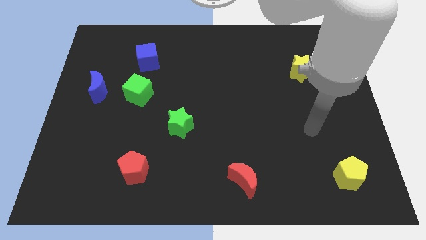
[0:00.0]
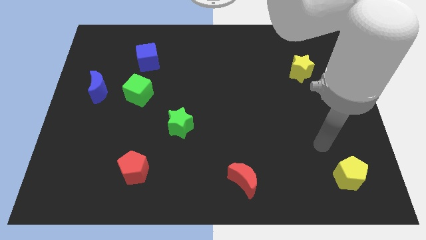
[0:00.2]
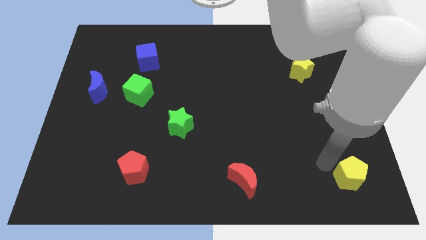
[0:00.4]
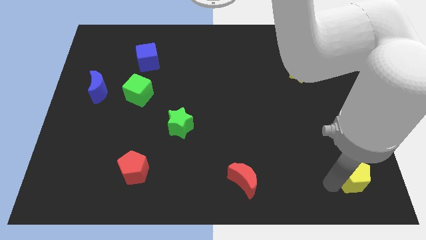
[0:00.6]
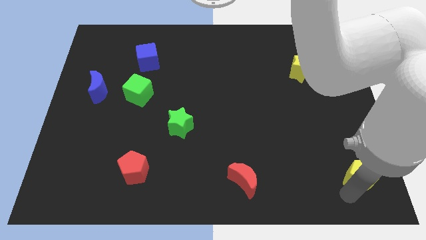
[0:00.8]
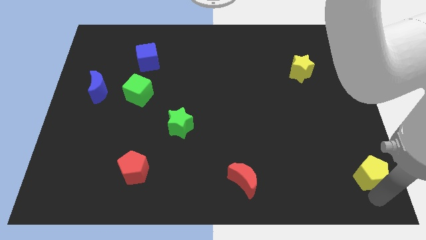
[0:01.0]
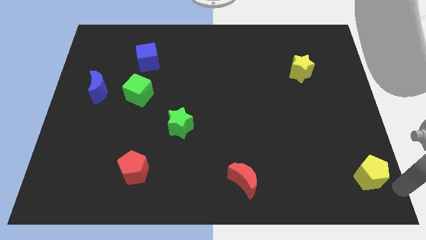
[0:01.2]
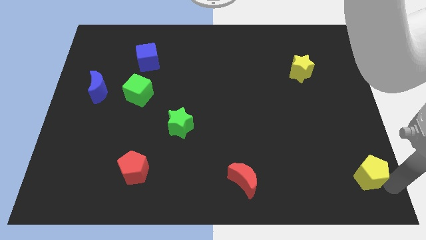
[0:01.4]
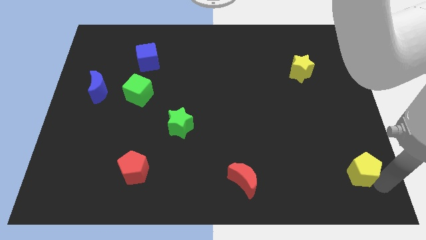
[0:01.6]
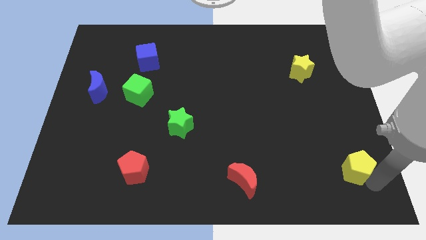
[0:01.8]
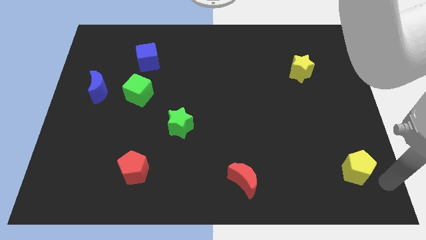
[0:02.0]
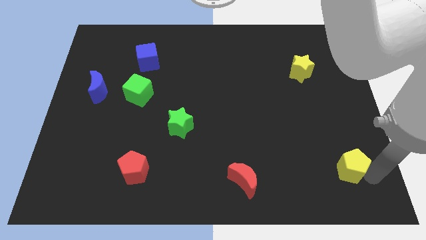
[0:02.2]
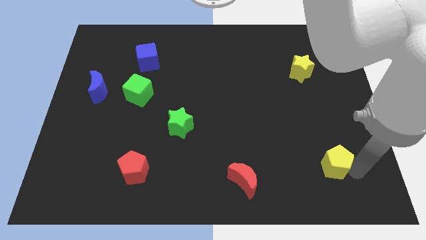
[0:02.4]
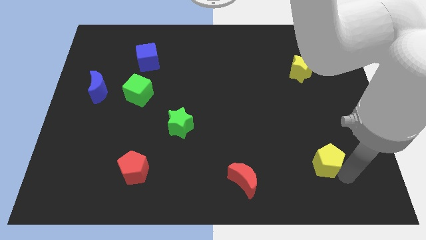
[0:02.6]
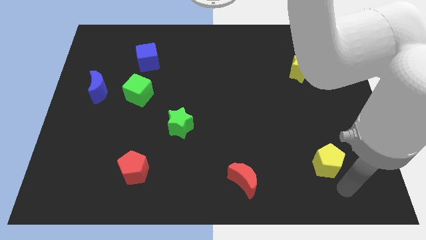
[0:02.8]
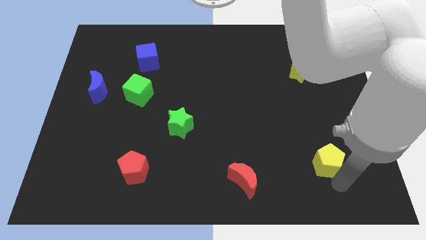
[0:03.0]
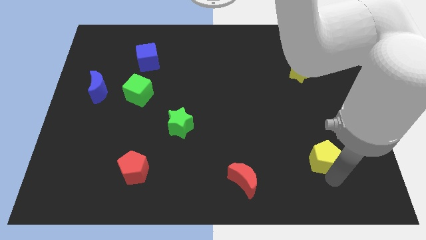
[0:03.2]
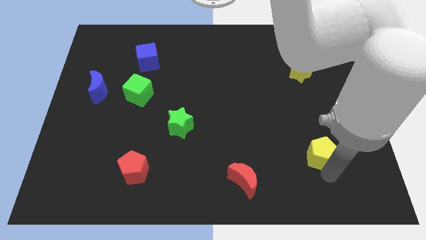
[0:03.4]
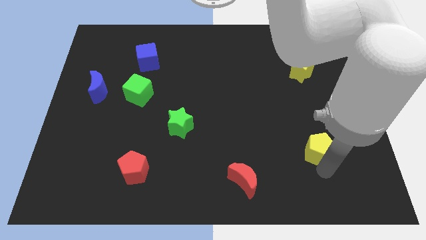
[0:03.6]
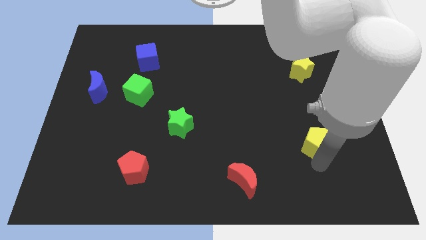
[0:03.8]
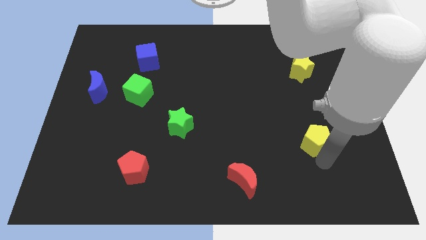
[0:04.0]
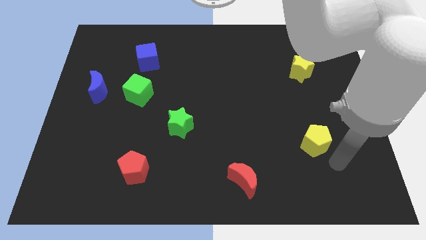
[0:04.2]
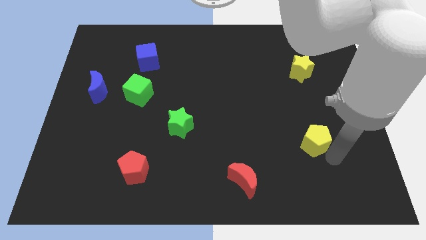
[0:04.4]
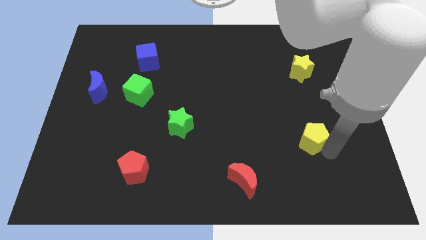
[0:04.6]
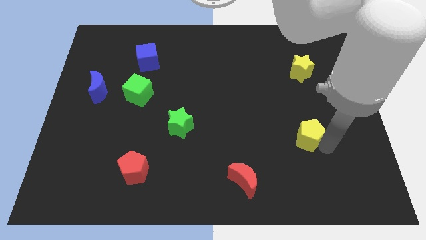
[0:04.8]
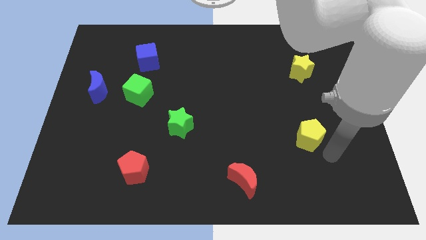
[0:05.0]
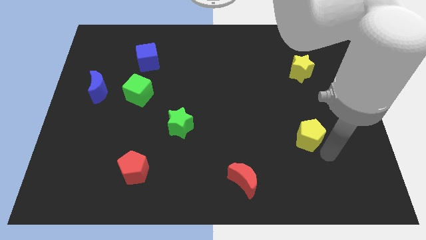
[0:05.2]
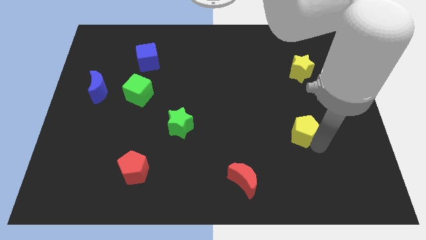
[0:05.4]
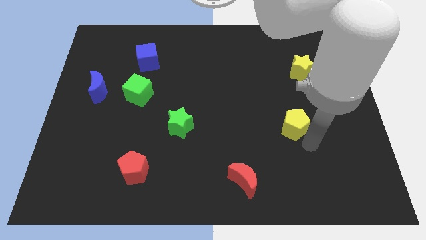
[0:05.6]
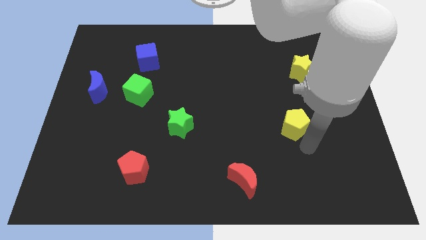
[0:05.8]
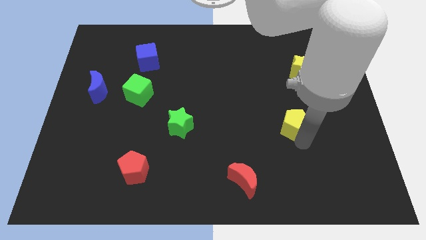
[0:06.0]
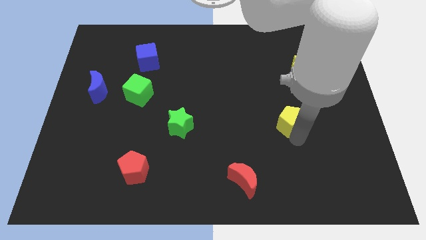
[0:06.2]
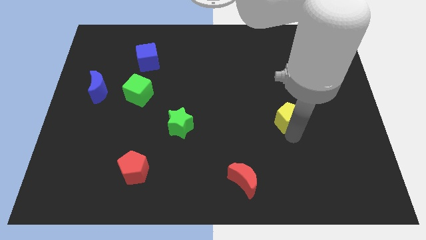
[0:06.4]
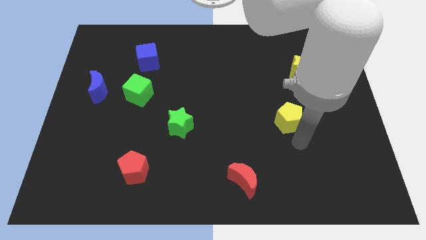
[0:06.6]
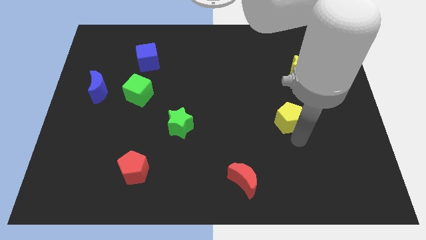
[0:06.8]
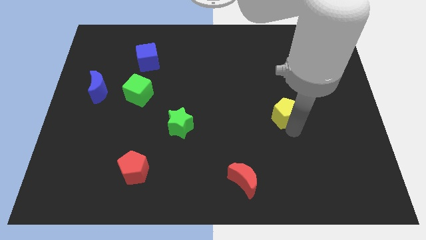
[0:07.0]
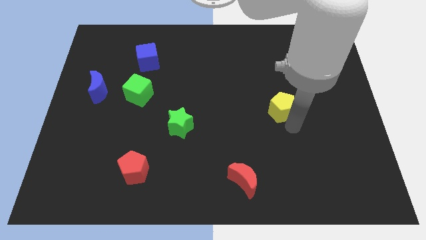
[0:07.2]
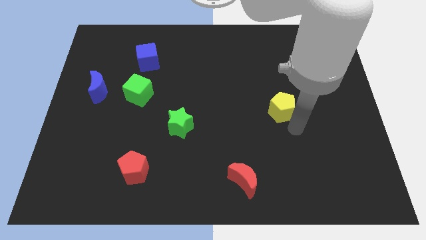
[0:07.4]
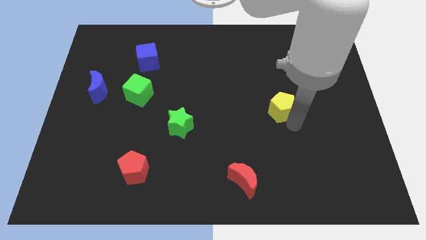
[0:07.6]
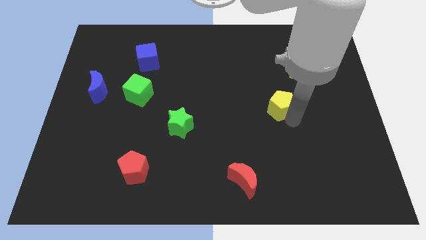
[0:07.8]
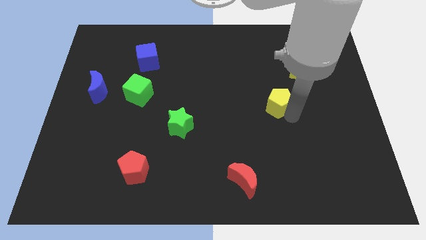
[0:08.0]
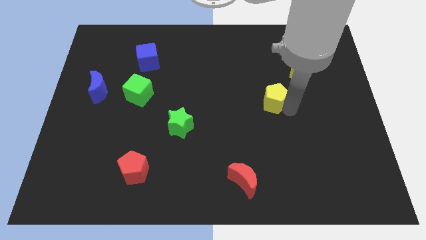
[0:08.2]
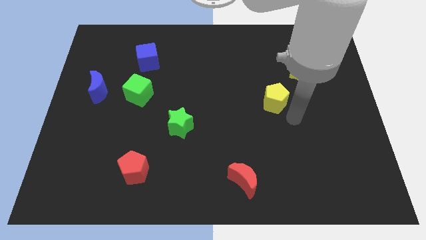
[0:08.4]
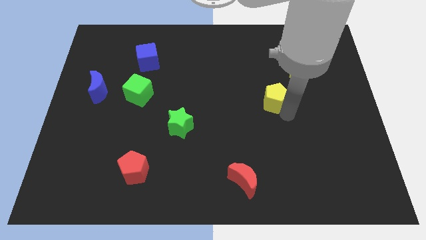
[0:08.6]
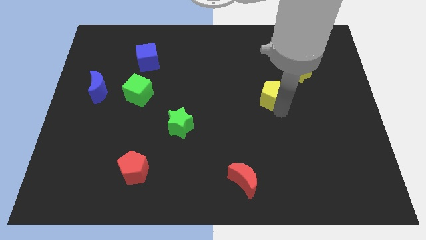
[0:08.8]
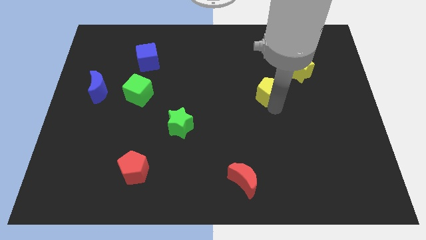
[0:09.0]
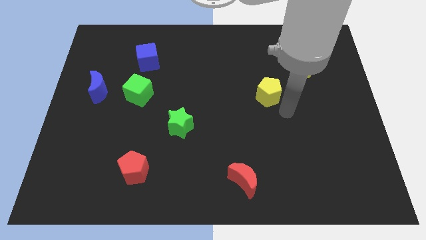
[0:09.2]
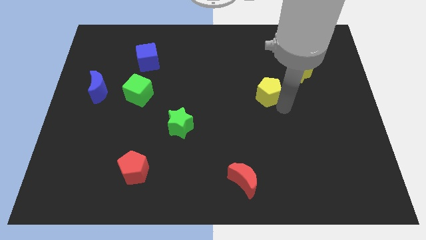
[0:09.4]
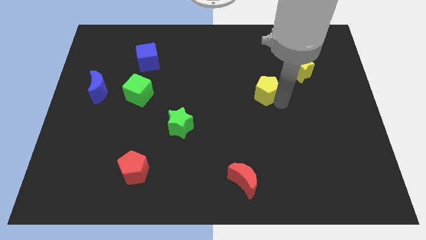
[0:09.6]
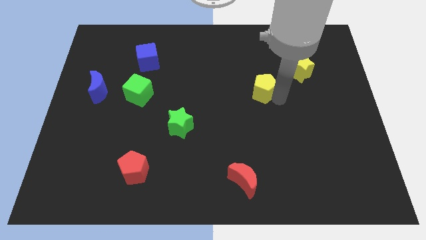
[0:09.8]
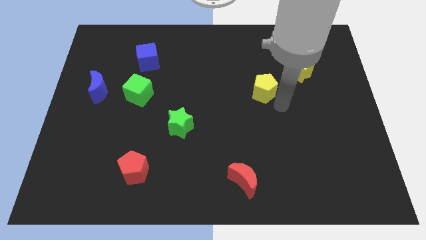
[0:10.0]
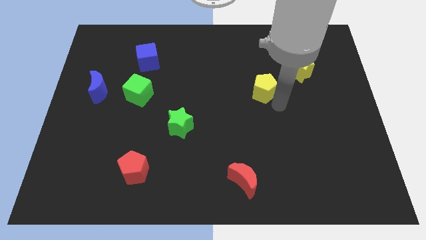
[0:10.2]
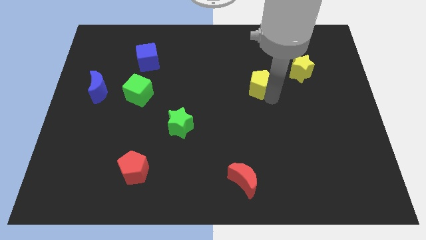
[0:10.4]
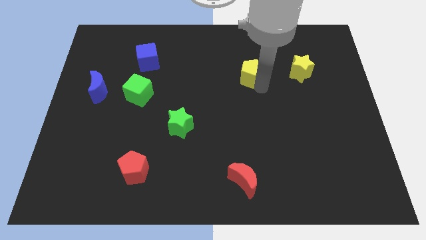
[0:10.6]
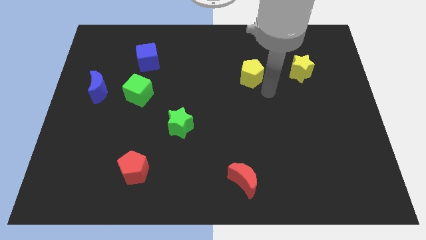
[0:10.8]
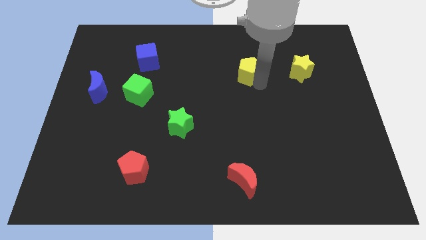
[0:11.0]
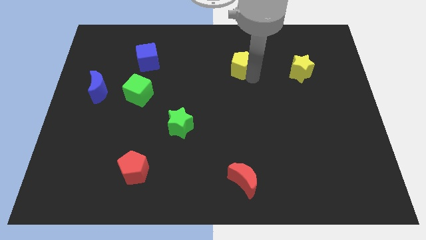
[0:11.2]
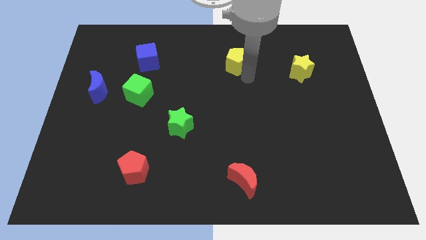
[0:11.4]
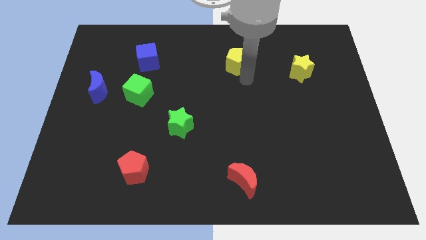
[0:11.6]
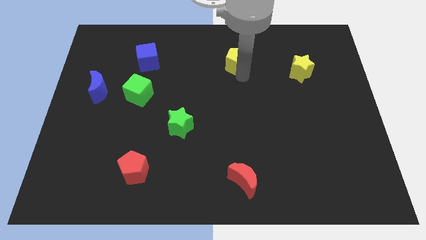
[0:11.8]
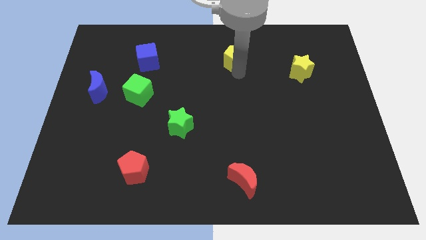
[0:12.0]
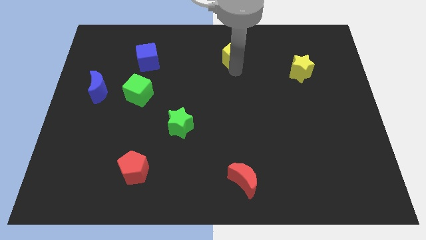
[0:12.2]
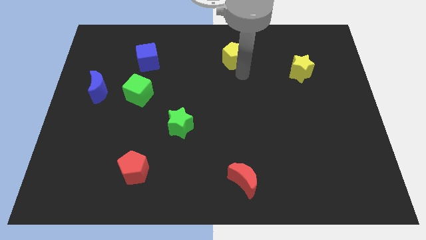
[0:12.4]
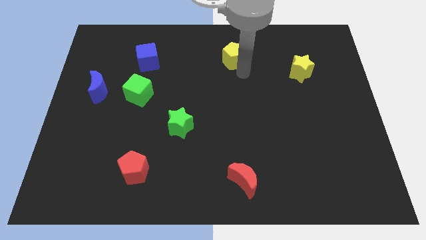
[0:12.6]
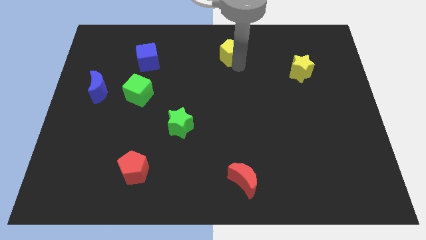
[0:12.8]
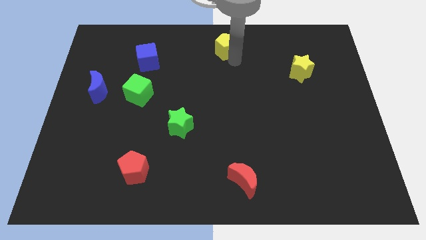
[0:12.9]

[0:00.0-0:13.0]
put the yellow pentagon to the towards your base
